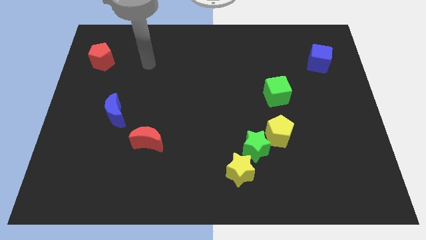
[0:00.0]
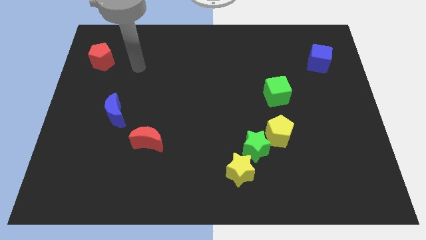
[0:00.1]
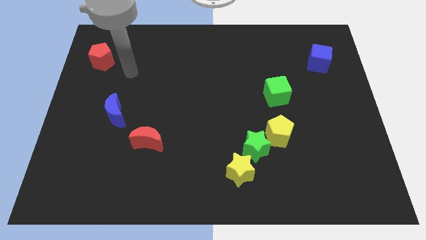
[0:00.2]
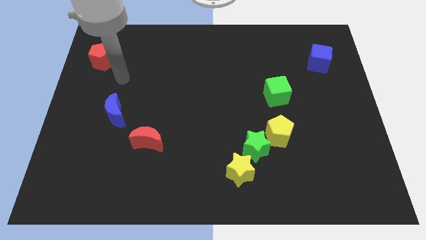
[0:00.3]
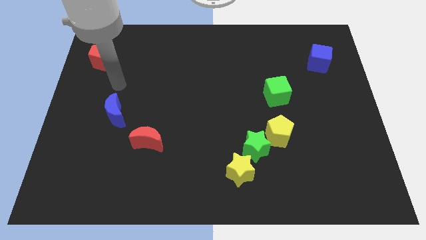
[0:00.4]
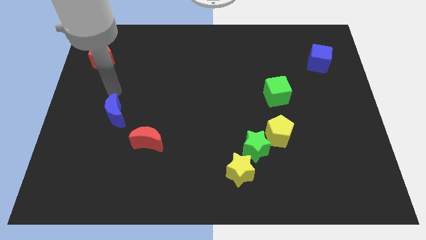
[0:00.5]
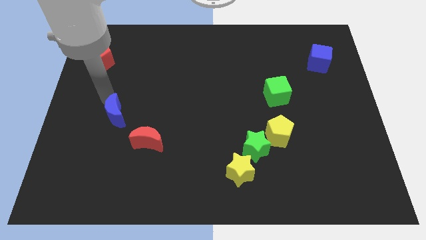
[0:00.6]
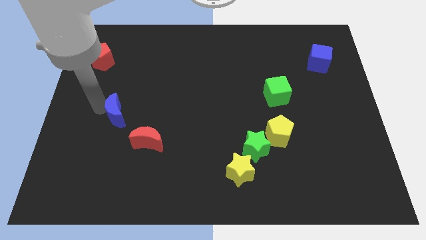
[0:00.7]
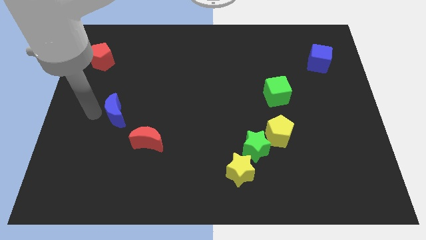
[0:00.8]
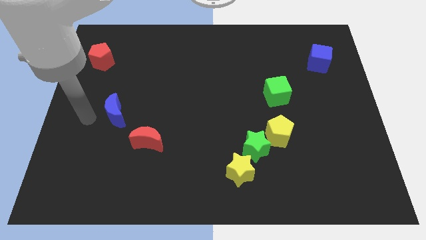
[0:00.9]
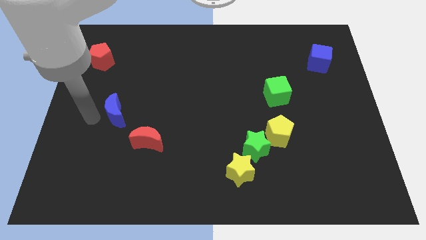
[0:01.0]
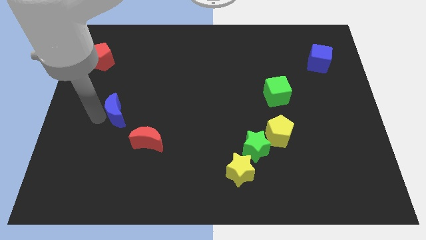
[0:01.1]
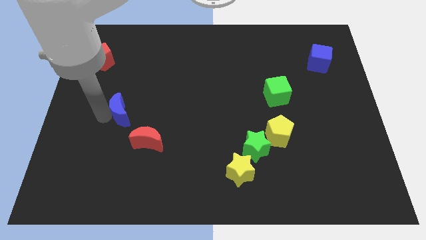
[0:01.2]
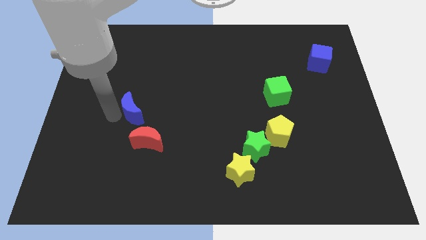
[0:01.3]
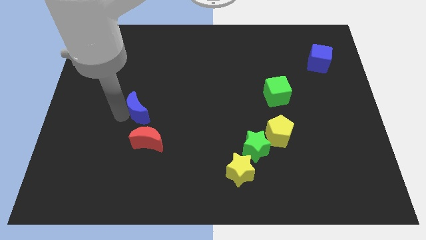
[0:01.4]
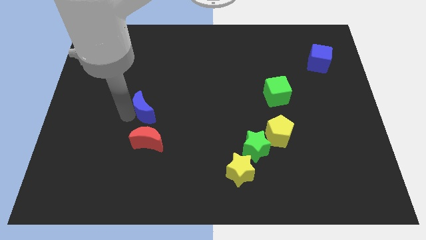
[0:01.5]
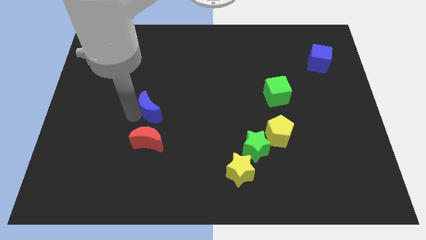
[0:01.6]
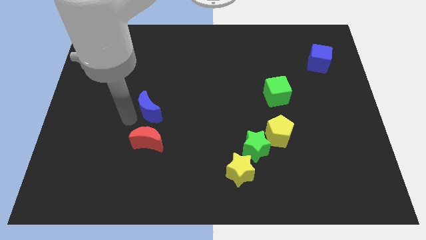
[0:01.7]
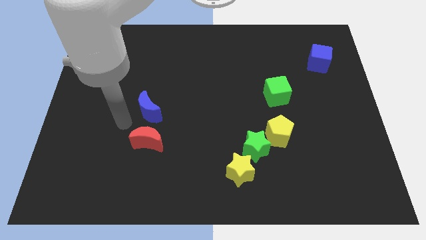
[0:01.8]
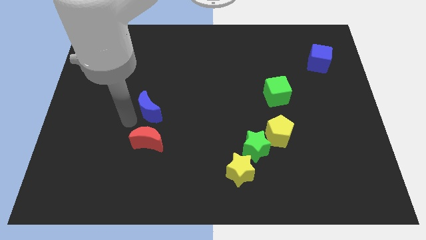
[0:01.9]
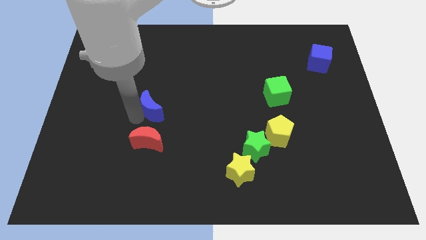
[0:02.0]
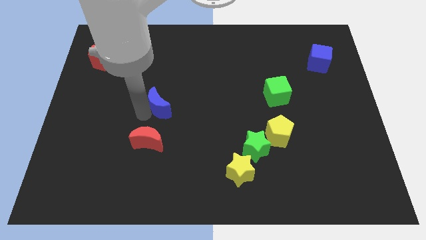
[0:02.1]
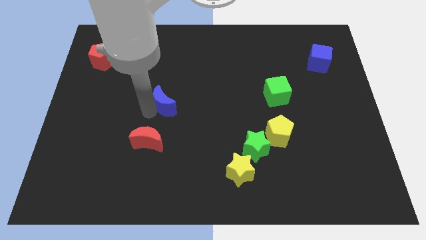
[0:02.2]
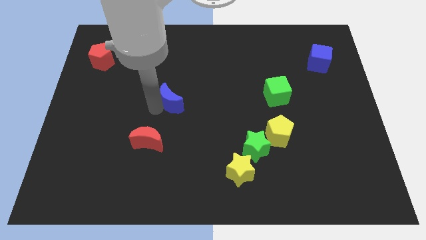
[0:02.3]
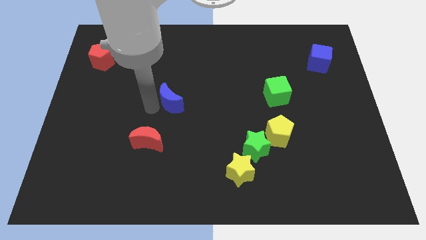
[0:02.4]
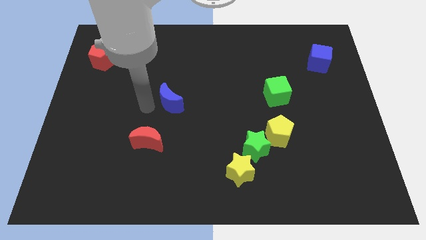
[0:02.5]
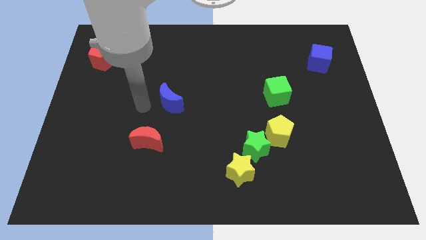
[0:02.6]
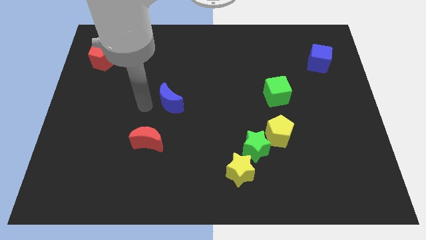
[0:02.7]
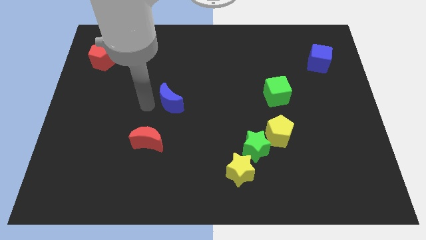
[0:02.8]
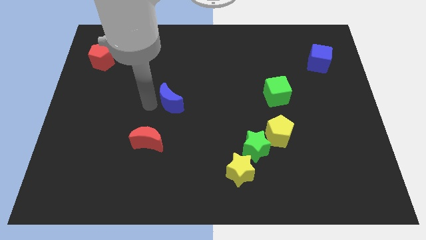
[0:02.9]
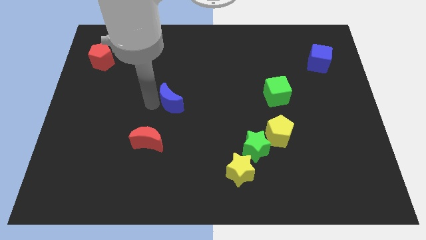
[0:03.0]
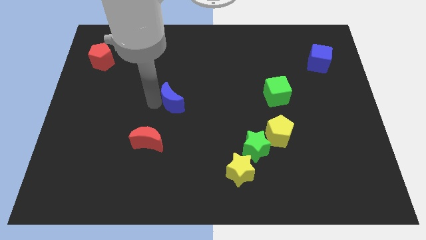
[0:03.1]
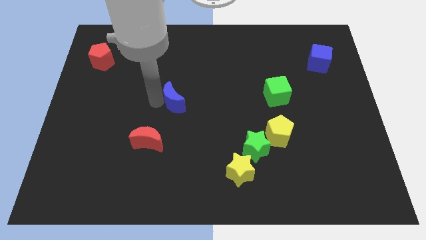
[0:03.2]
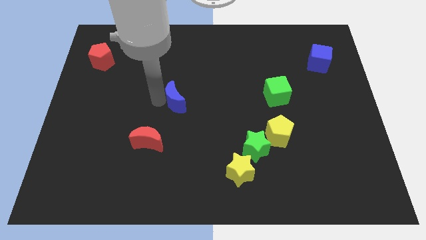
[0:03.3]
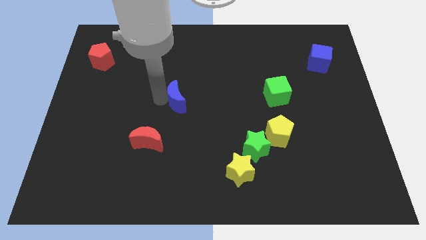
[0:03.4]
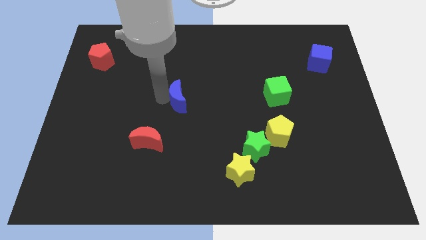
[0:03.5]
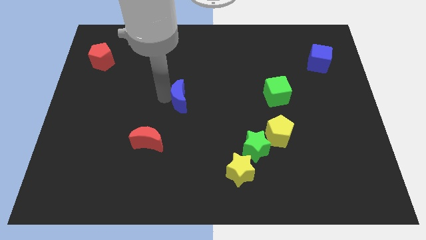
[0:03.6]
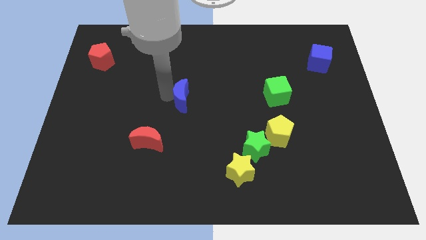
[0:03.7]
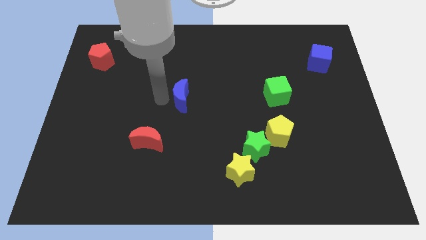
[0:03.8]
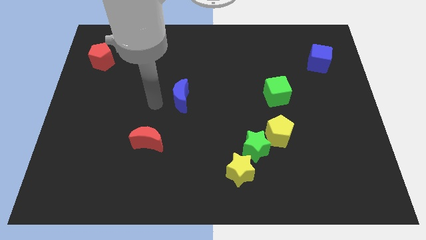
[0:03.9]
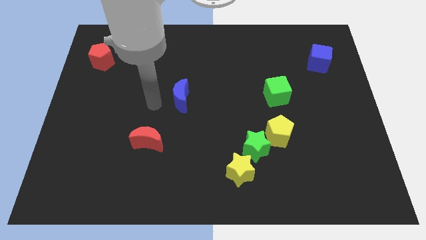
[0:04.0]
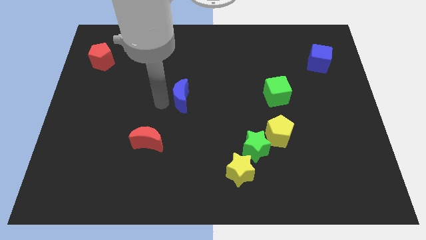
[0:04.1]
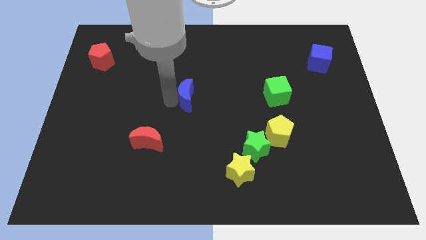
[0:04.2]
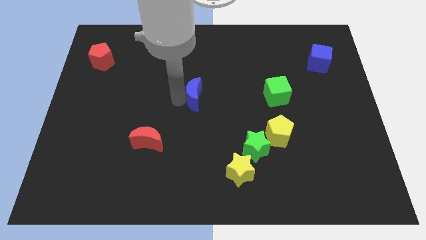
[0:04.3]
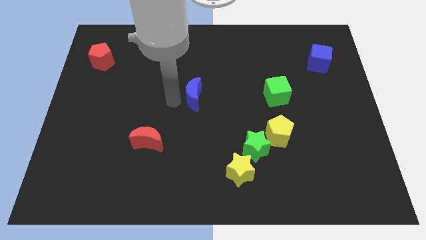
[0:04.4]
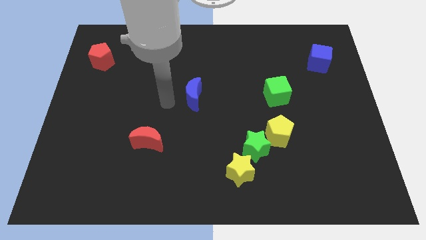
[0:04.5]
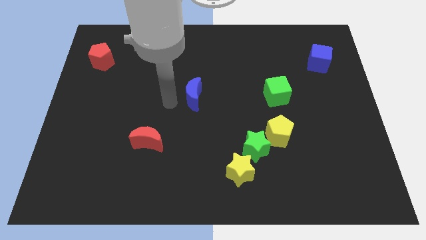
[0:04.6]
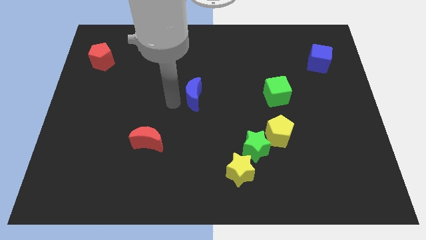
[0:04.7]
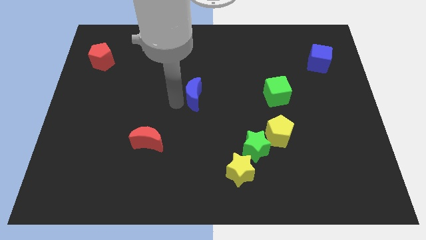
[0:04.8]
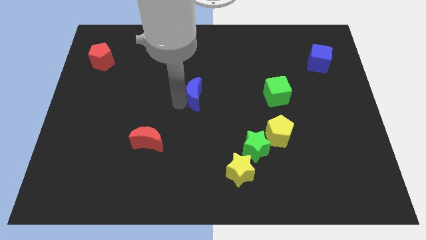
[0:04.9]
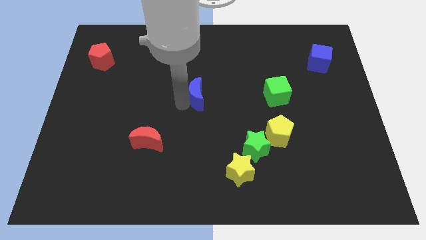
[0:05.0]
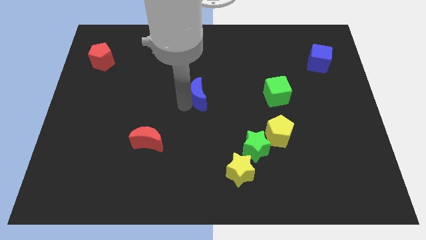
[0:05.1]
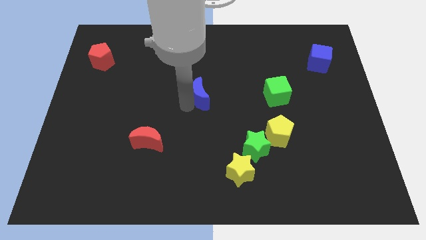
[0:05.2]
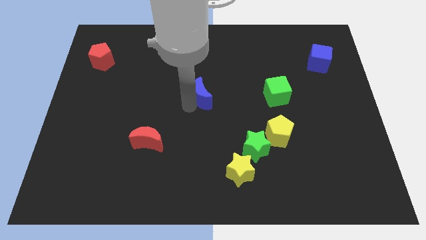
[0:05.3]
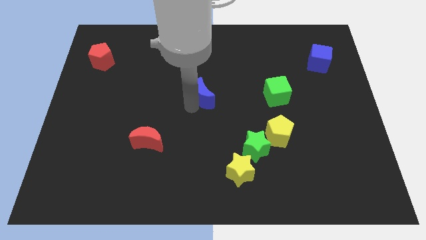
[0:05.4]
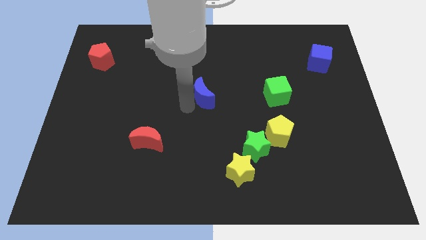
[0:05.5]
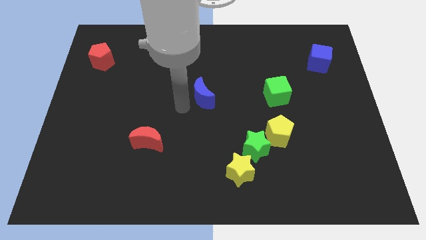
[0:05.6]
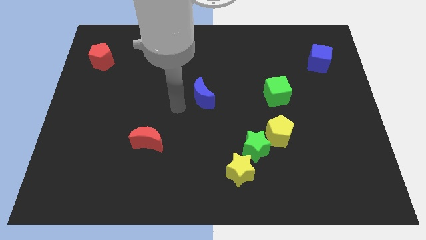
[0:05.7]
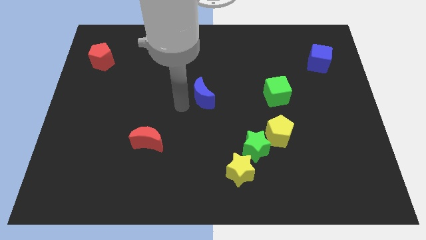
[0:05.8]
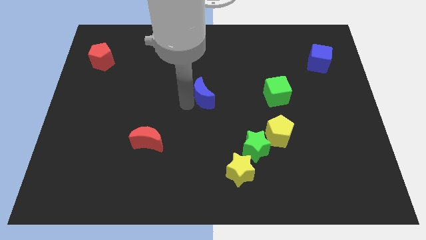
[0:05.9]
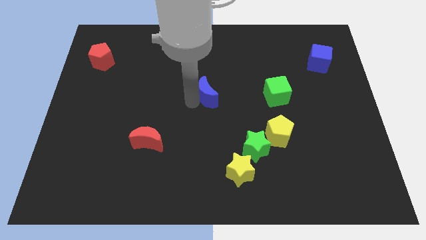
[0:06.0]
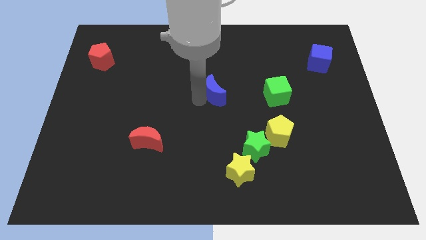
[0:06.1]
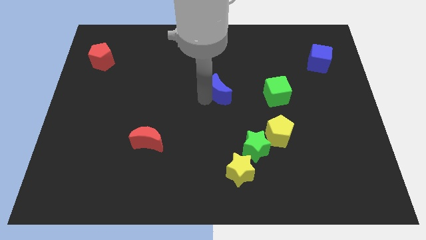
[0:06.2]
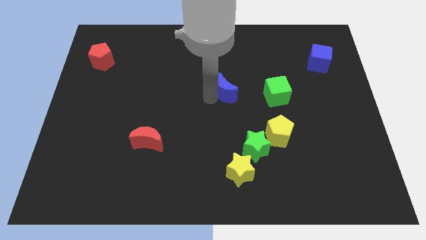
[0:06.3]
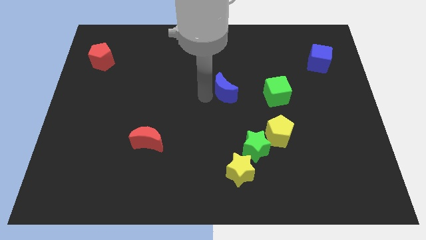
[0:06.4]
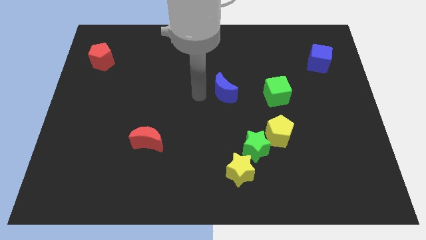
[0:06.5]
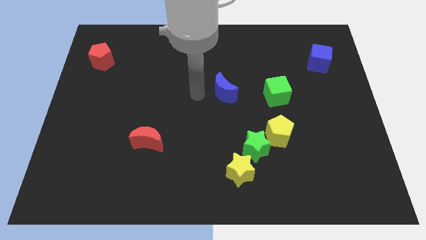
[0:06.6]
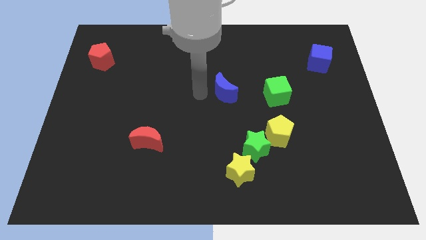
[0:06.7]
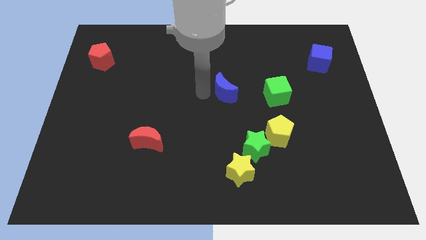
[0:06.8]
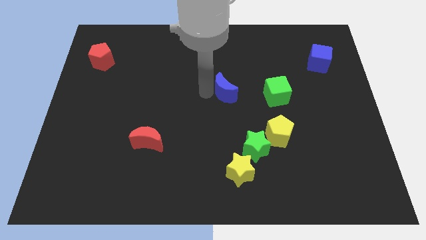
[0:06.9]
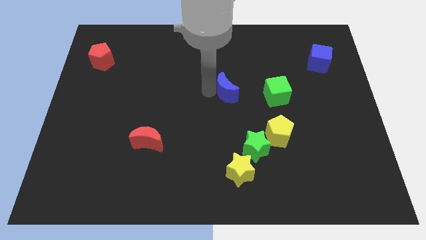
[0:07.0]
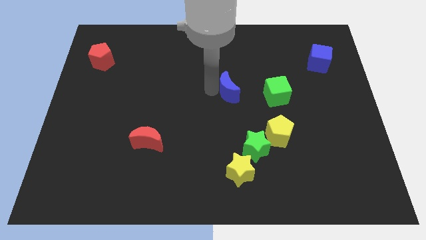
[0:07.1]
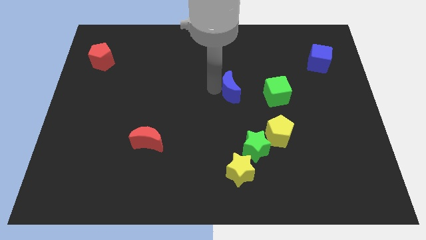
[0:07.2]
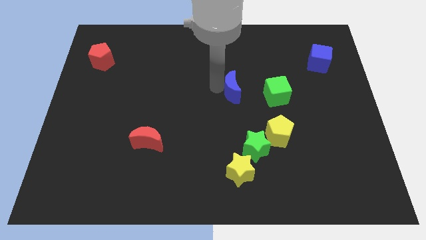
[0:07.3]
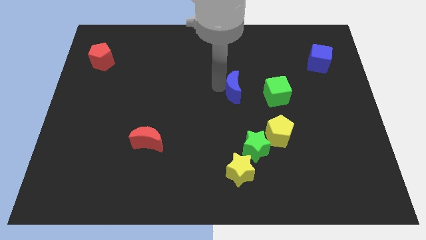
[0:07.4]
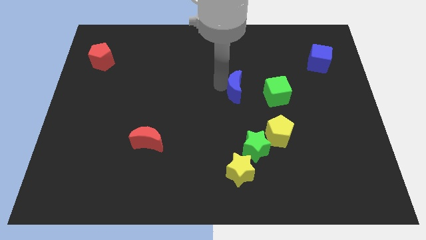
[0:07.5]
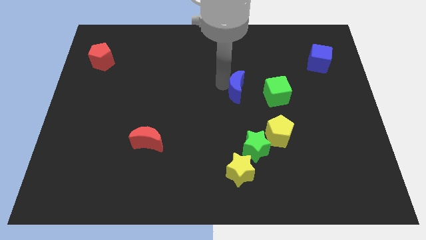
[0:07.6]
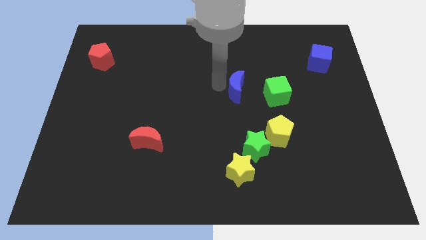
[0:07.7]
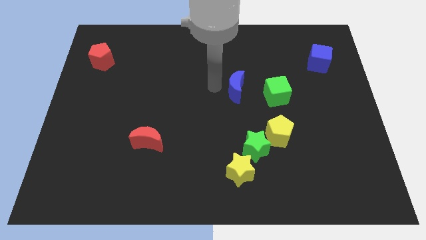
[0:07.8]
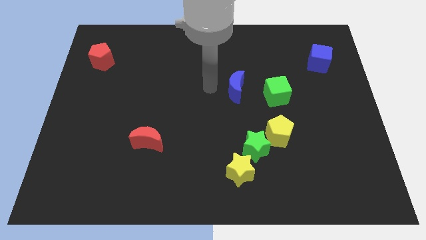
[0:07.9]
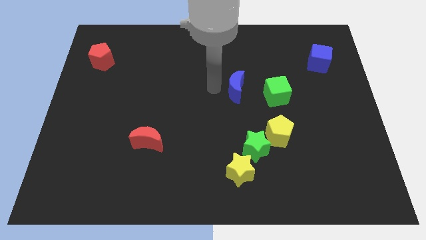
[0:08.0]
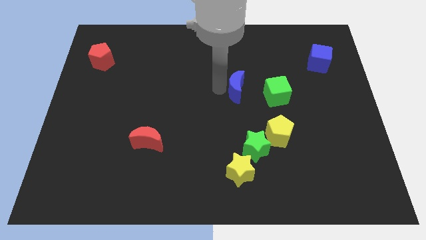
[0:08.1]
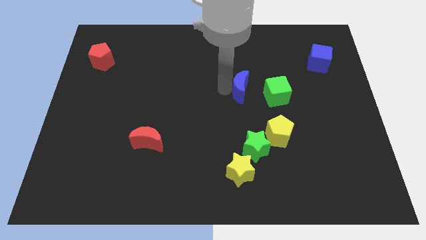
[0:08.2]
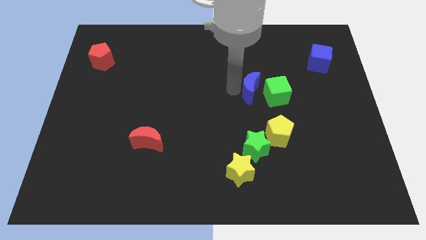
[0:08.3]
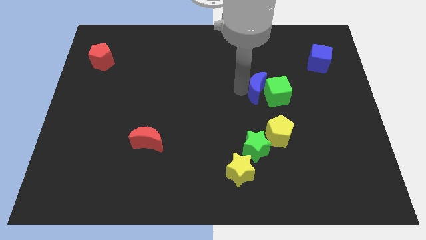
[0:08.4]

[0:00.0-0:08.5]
slide the blue moon to the green cube
